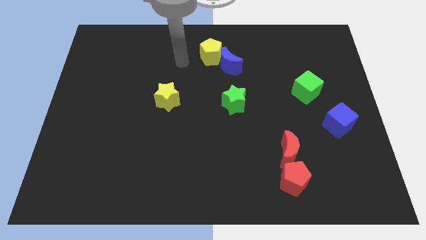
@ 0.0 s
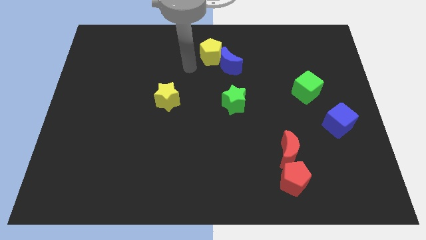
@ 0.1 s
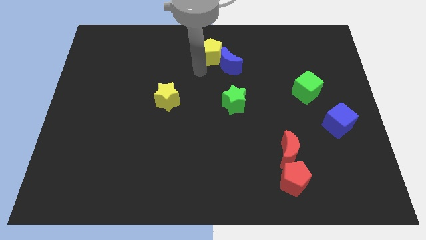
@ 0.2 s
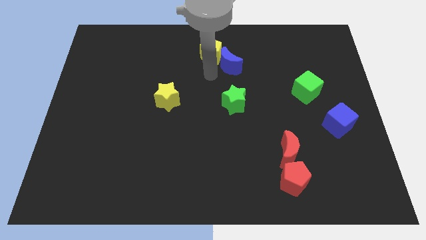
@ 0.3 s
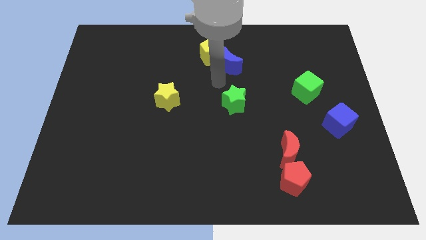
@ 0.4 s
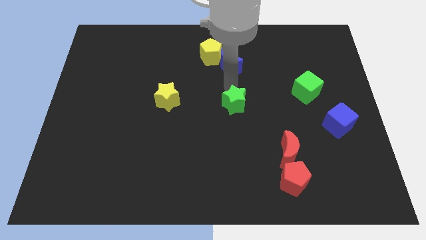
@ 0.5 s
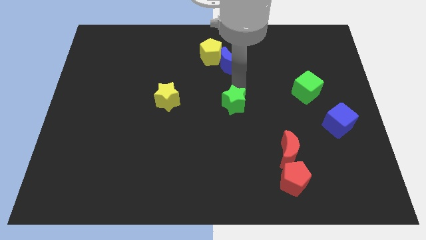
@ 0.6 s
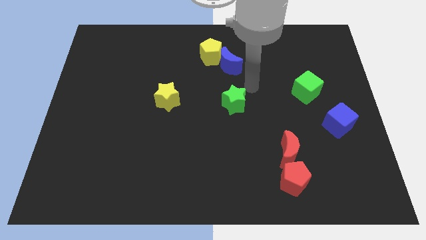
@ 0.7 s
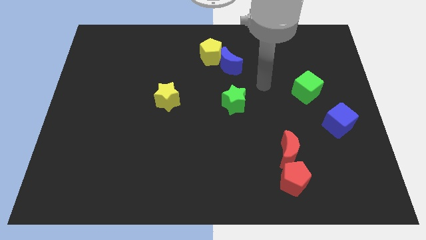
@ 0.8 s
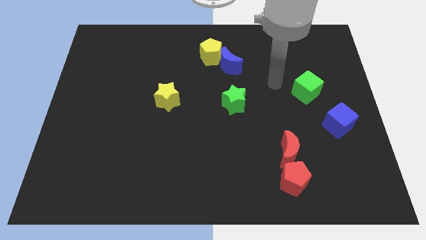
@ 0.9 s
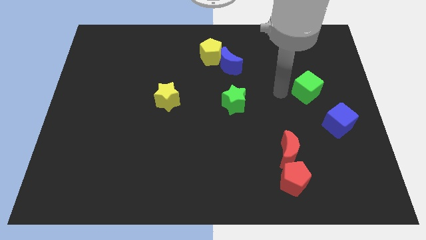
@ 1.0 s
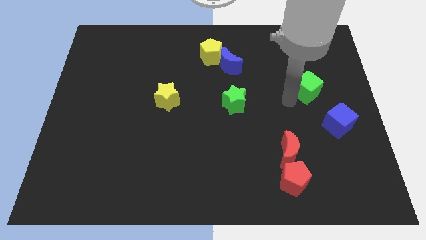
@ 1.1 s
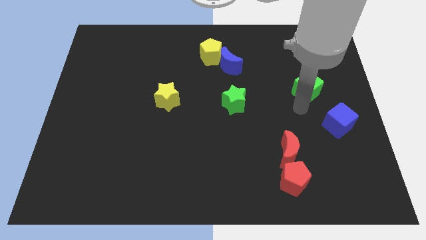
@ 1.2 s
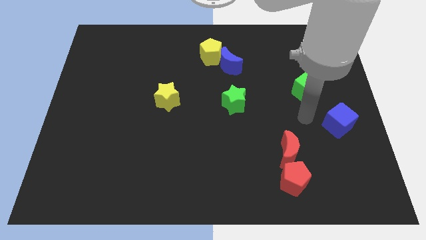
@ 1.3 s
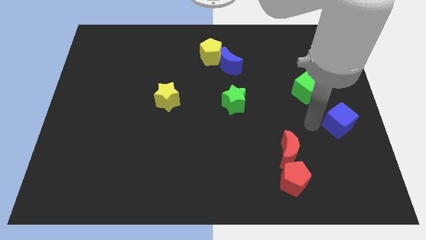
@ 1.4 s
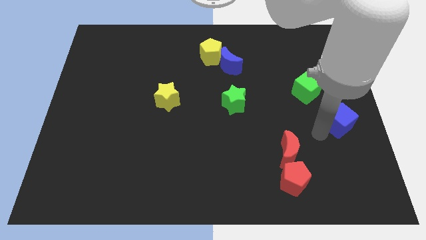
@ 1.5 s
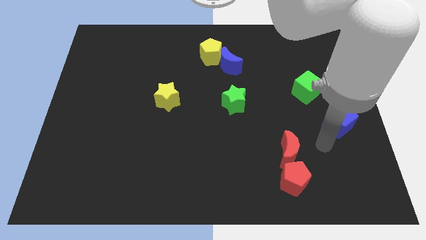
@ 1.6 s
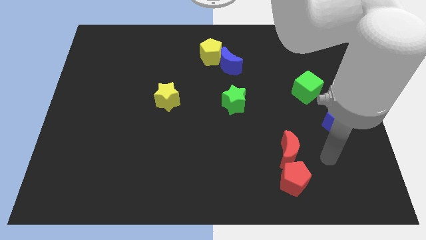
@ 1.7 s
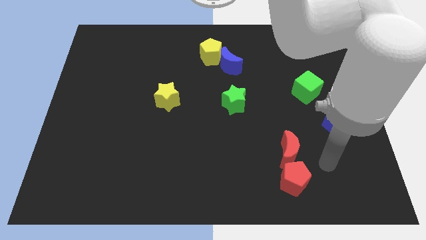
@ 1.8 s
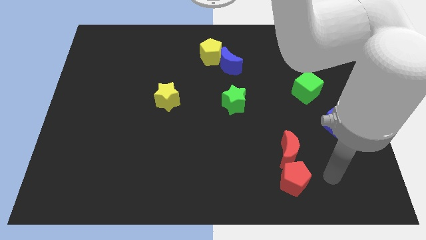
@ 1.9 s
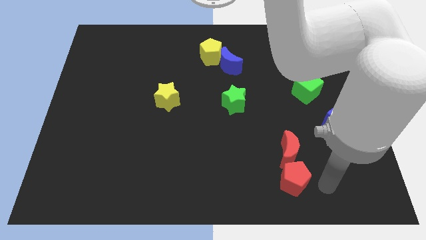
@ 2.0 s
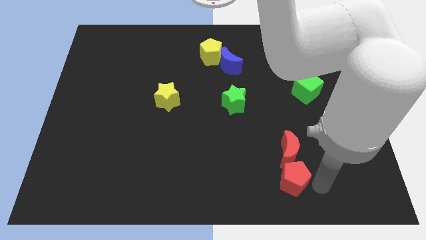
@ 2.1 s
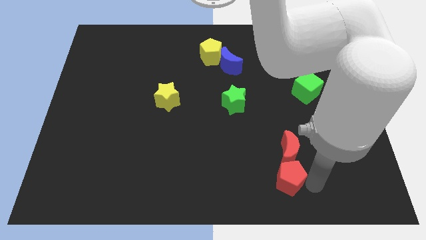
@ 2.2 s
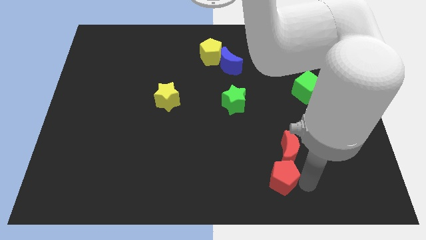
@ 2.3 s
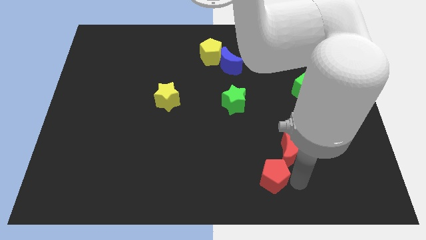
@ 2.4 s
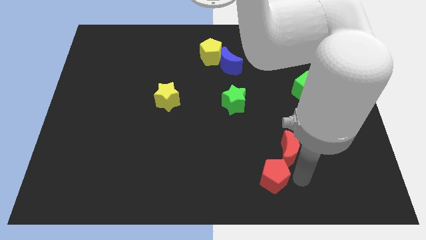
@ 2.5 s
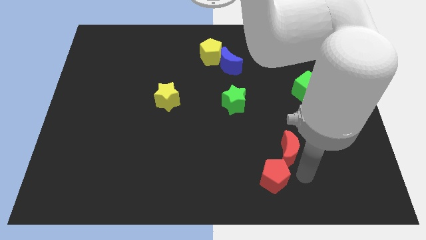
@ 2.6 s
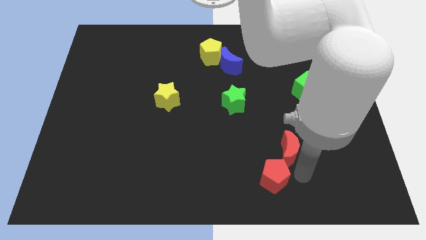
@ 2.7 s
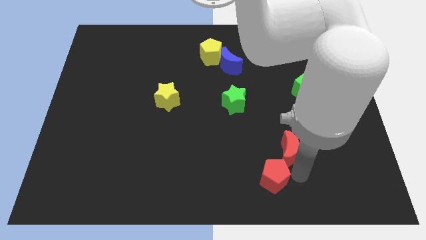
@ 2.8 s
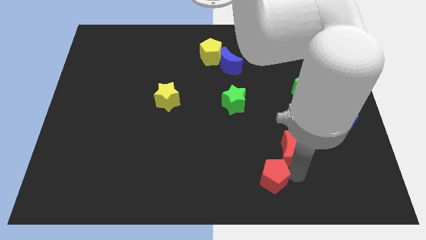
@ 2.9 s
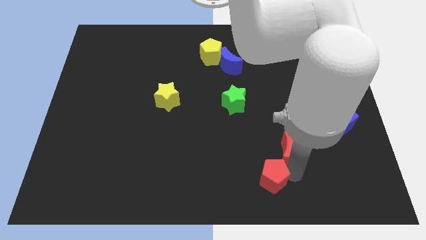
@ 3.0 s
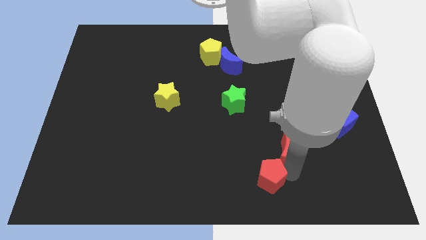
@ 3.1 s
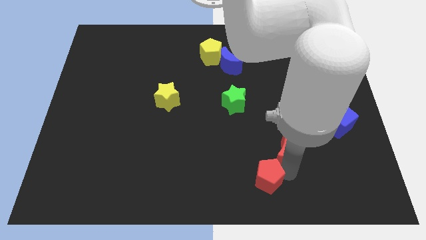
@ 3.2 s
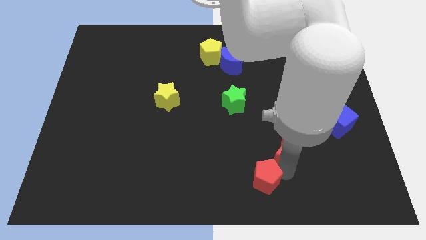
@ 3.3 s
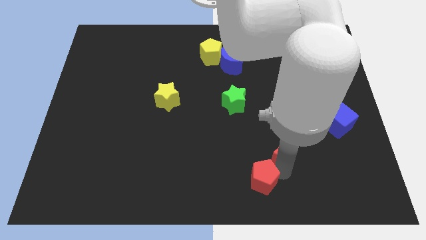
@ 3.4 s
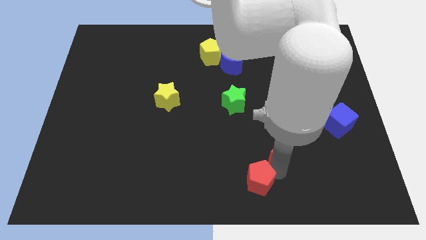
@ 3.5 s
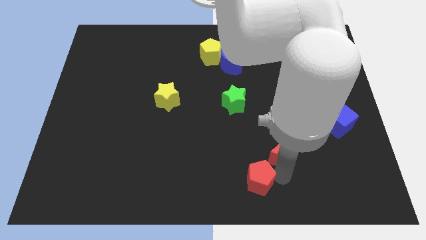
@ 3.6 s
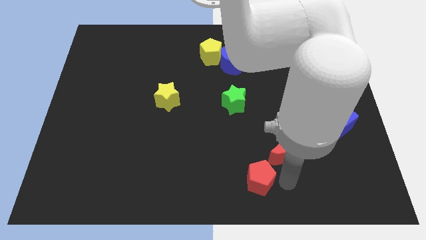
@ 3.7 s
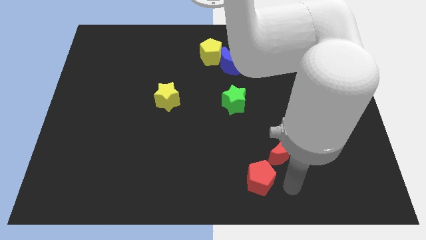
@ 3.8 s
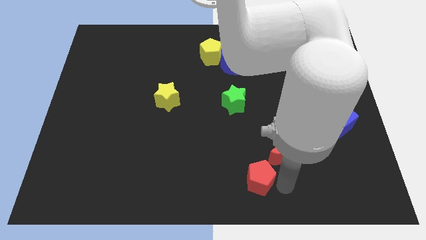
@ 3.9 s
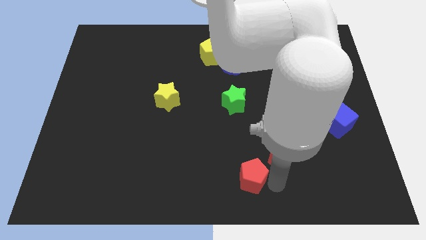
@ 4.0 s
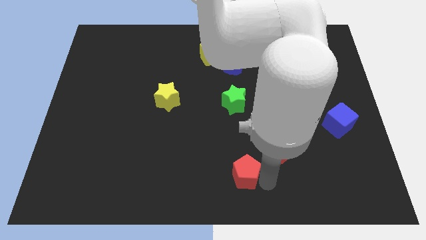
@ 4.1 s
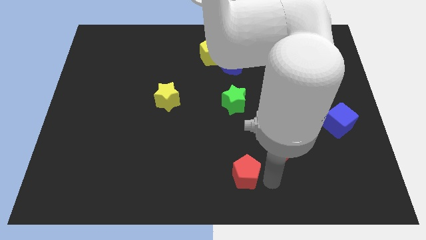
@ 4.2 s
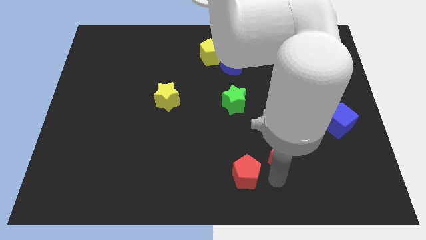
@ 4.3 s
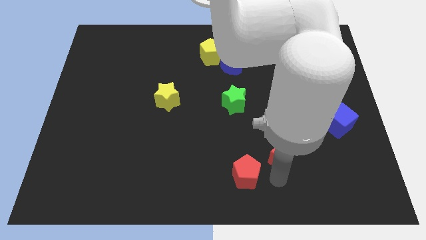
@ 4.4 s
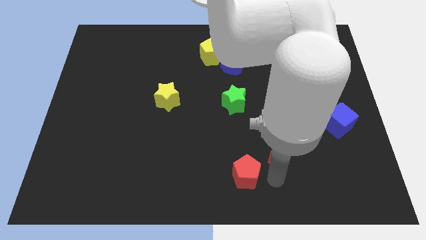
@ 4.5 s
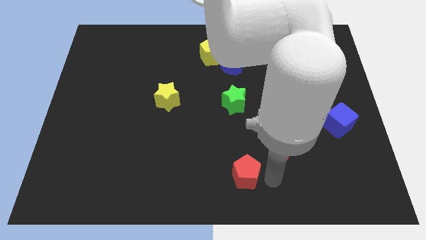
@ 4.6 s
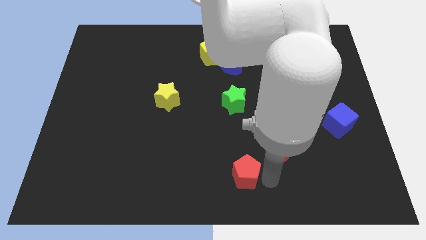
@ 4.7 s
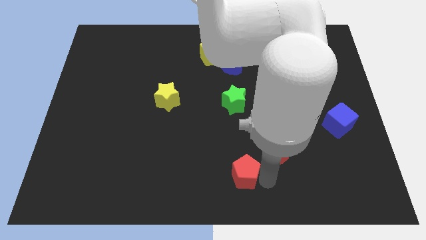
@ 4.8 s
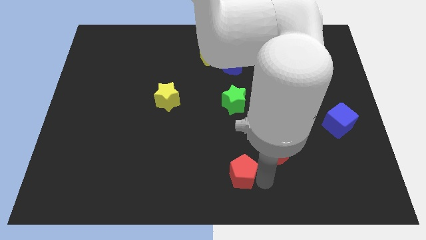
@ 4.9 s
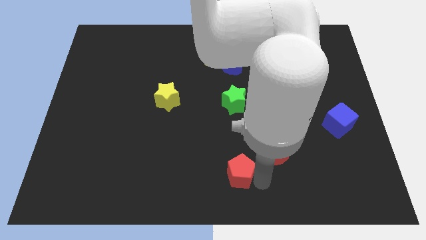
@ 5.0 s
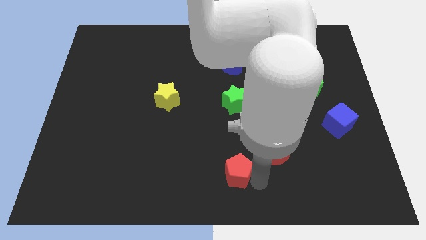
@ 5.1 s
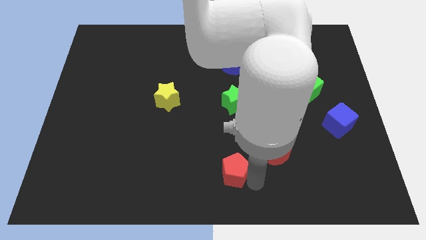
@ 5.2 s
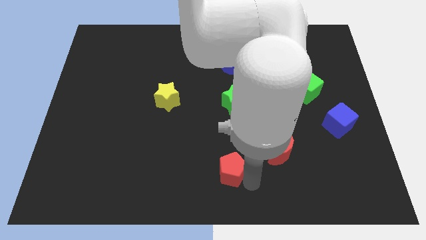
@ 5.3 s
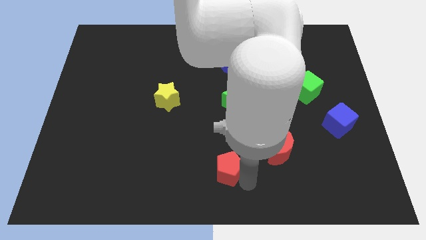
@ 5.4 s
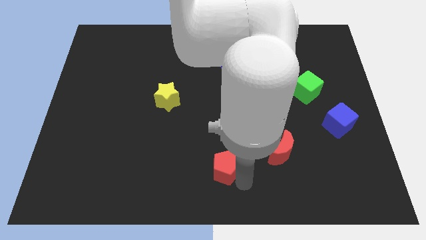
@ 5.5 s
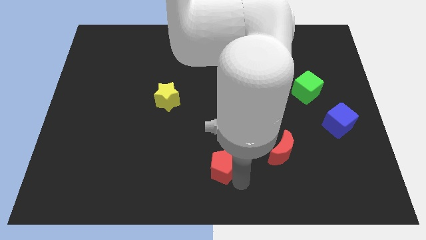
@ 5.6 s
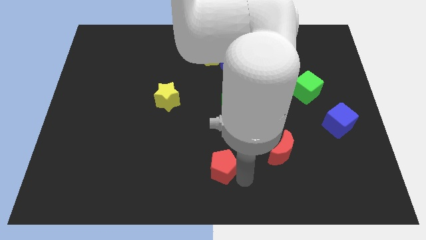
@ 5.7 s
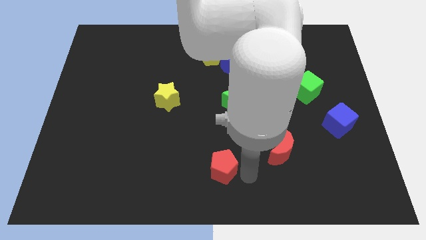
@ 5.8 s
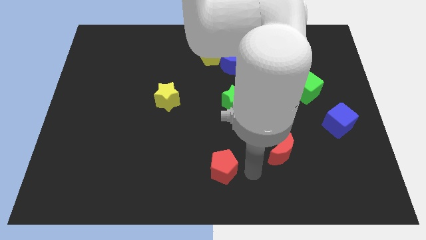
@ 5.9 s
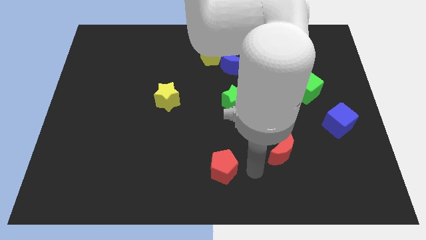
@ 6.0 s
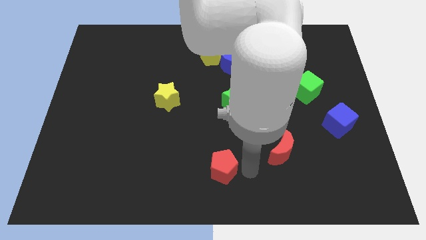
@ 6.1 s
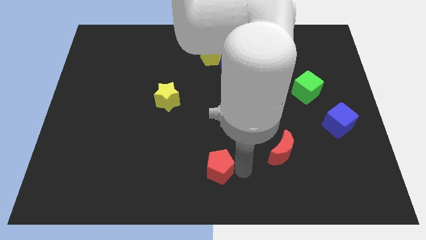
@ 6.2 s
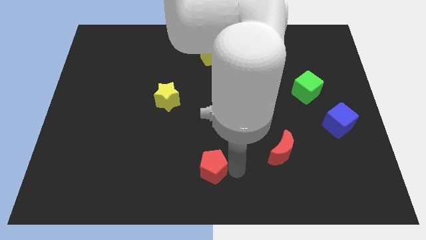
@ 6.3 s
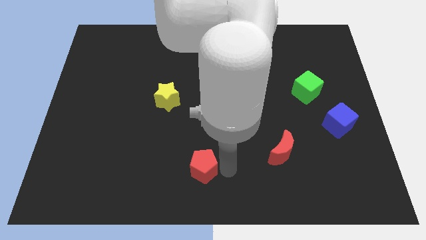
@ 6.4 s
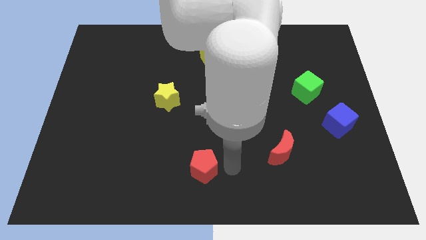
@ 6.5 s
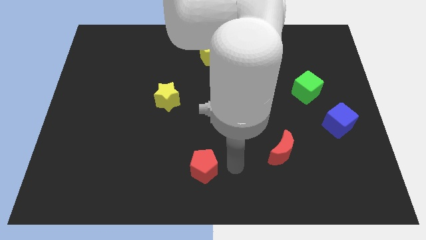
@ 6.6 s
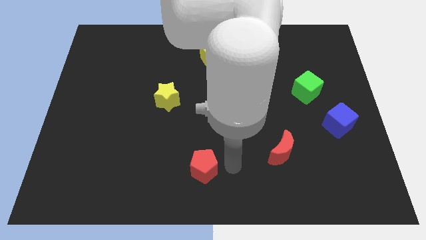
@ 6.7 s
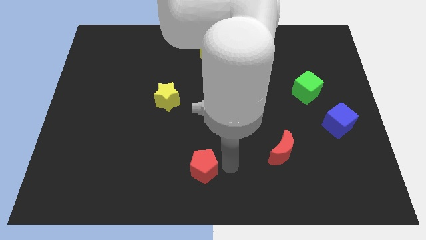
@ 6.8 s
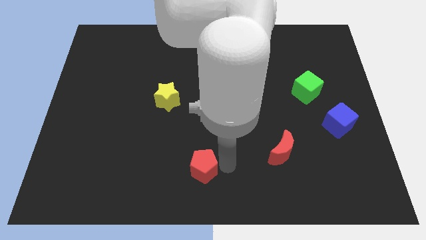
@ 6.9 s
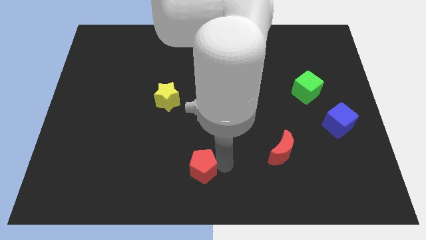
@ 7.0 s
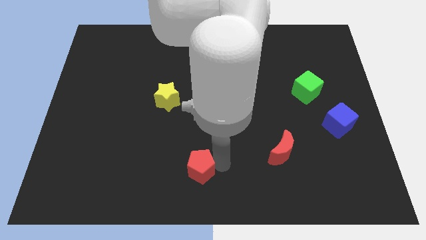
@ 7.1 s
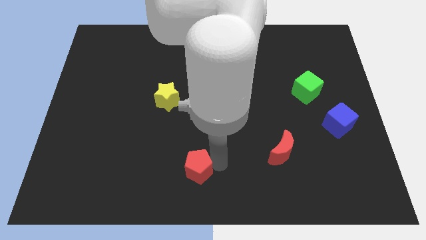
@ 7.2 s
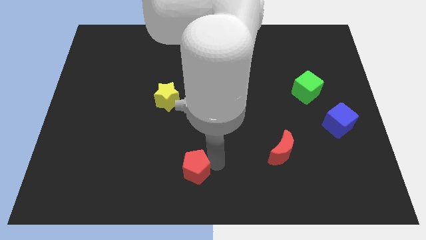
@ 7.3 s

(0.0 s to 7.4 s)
push the red pentagon left

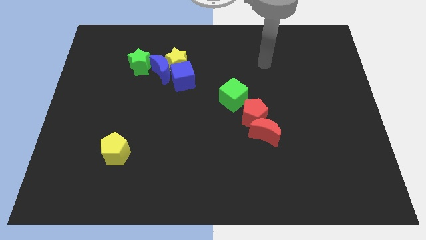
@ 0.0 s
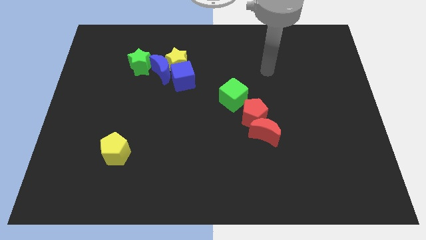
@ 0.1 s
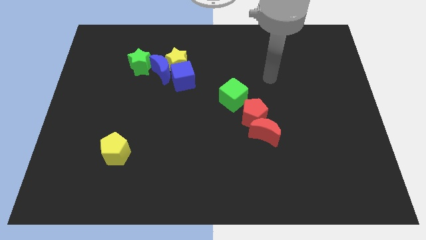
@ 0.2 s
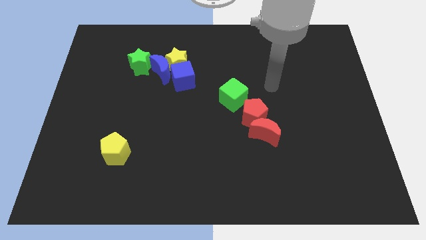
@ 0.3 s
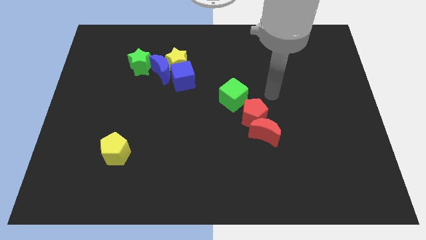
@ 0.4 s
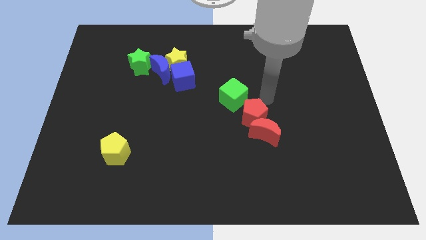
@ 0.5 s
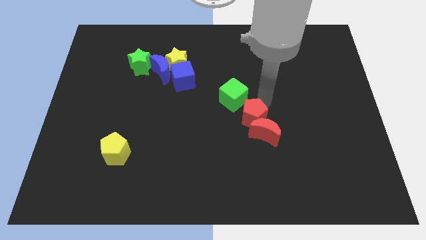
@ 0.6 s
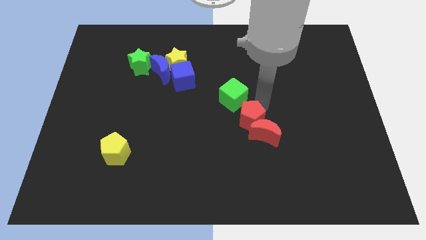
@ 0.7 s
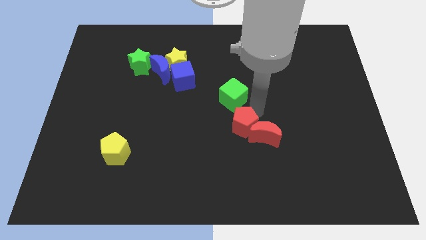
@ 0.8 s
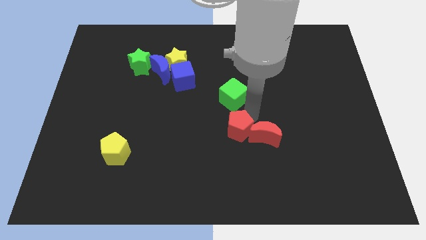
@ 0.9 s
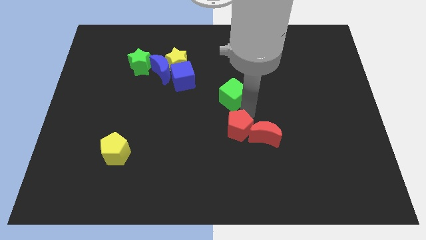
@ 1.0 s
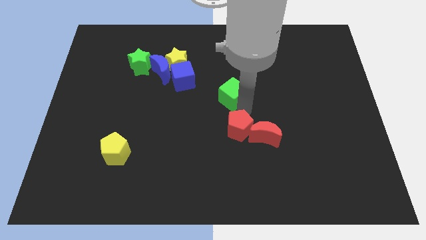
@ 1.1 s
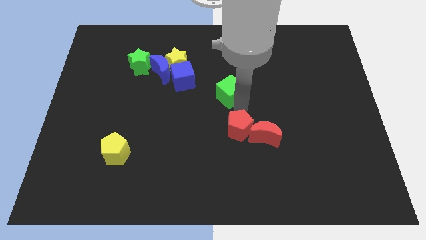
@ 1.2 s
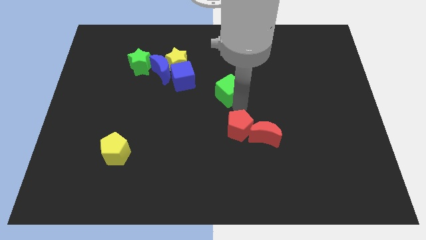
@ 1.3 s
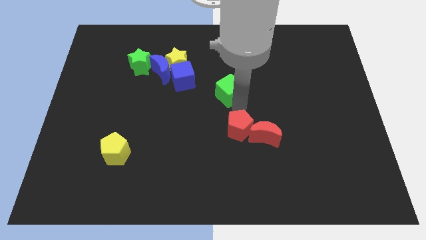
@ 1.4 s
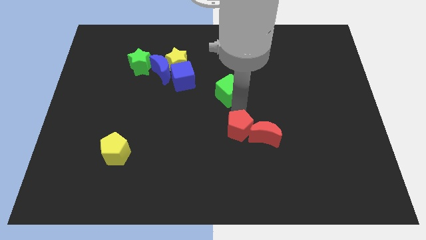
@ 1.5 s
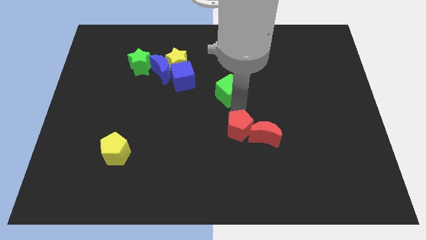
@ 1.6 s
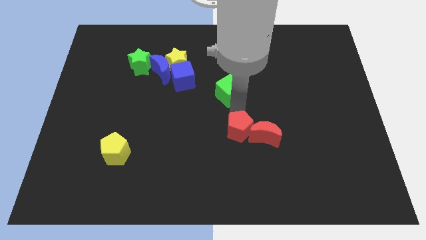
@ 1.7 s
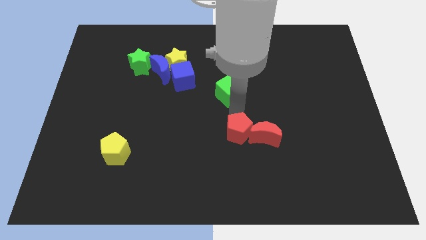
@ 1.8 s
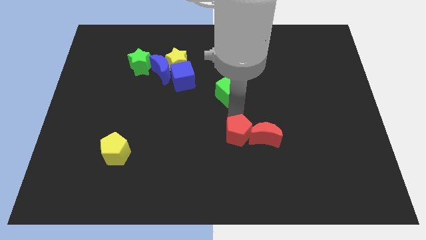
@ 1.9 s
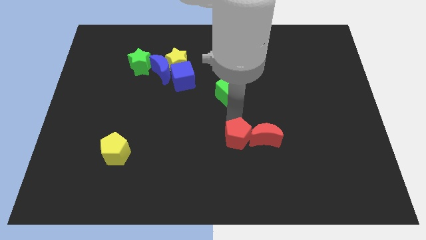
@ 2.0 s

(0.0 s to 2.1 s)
move the red pentagon diagonally down and to the left a little bit
